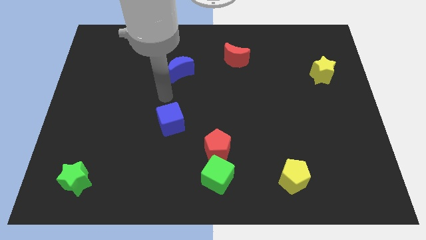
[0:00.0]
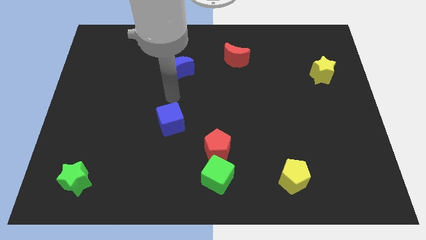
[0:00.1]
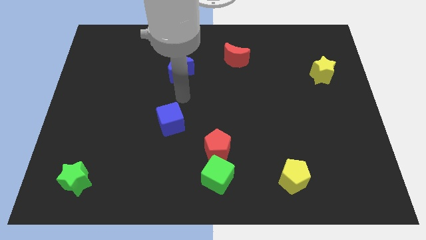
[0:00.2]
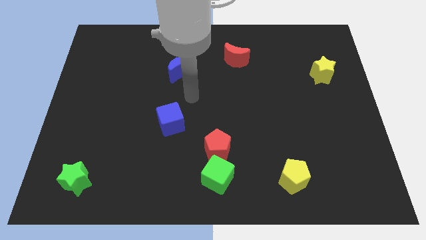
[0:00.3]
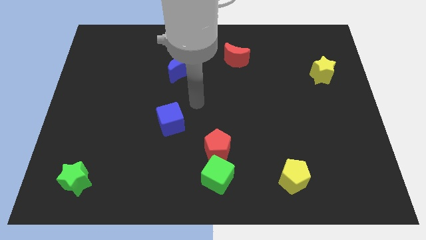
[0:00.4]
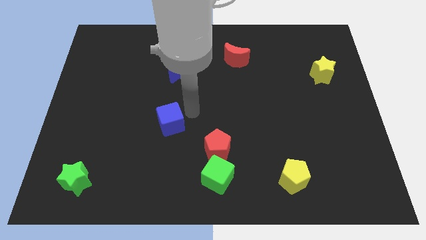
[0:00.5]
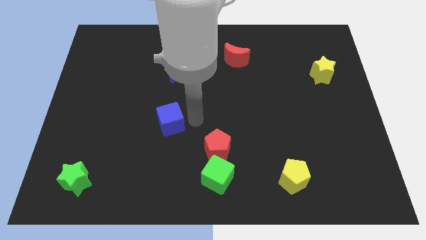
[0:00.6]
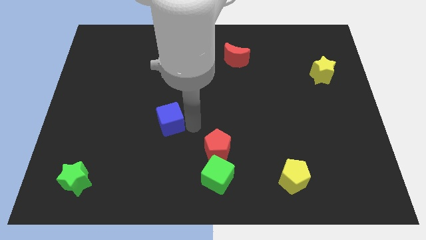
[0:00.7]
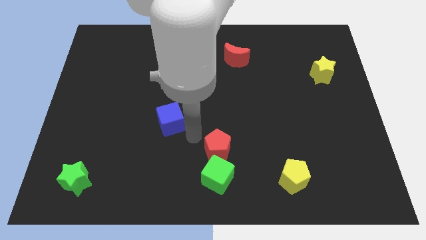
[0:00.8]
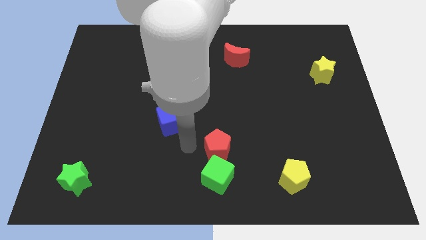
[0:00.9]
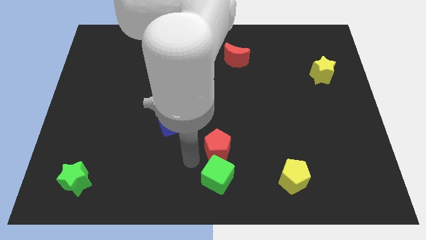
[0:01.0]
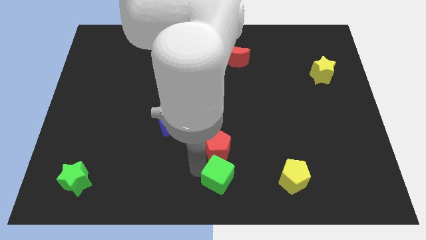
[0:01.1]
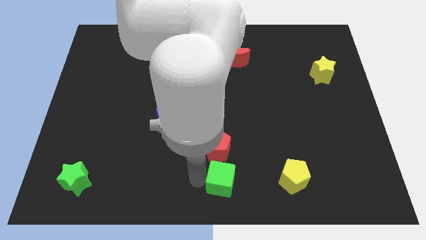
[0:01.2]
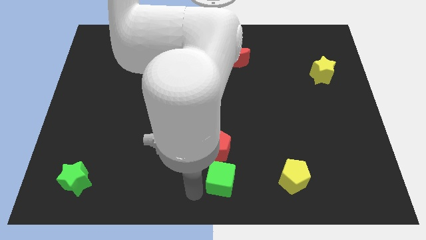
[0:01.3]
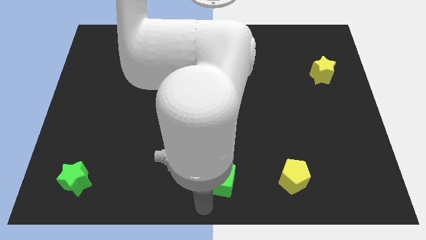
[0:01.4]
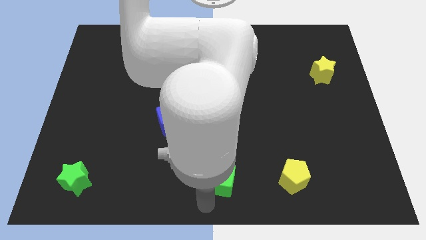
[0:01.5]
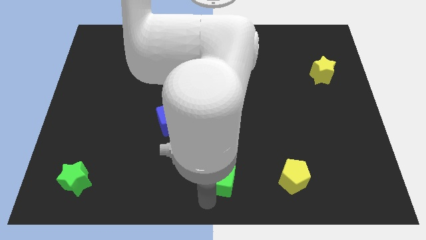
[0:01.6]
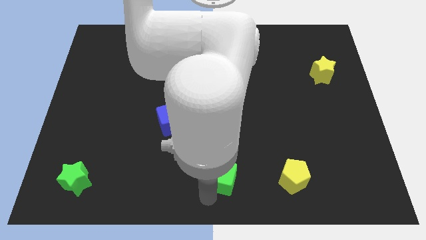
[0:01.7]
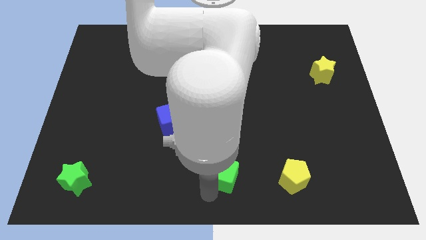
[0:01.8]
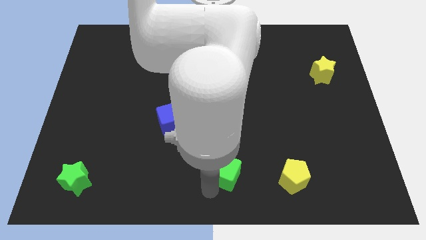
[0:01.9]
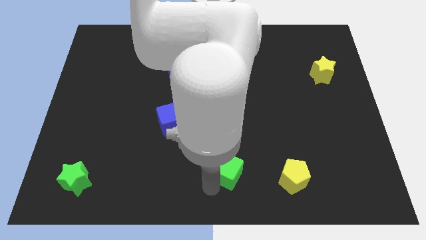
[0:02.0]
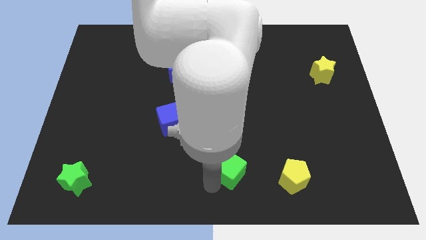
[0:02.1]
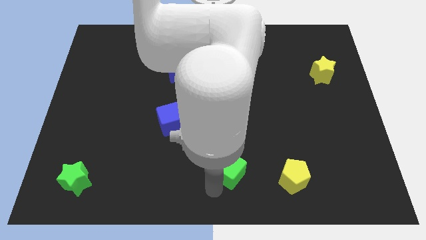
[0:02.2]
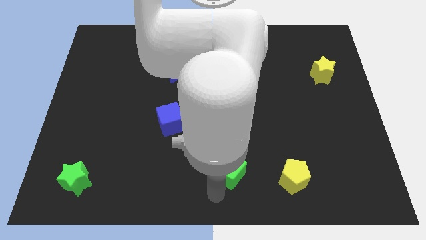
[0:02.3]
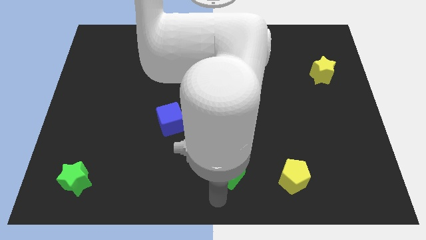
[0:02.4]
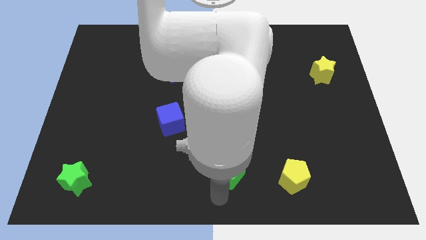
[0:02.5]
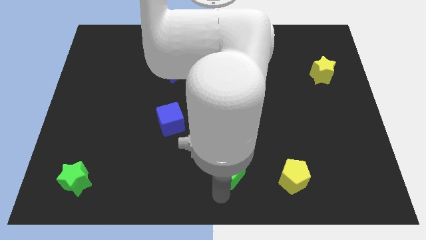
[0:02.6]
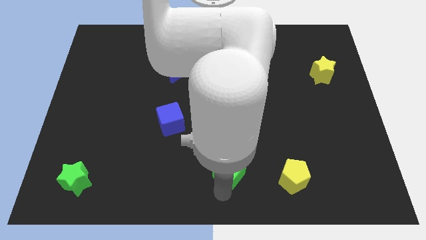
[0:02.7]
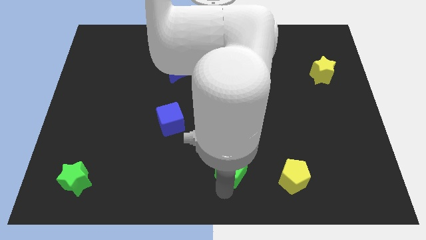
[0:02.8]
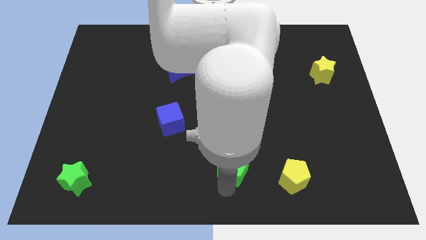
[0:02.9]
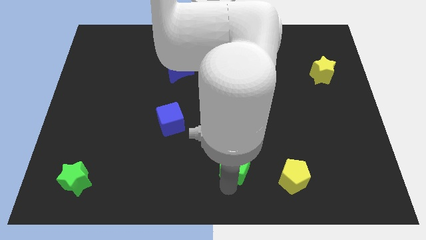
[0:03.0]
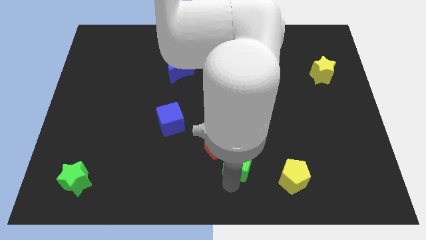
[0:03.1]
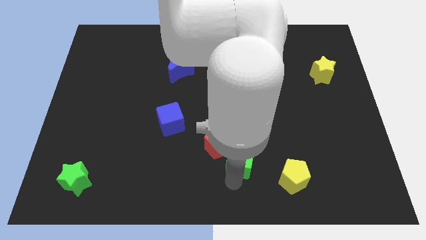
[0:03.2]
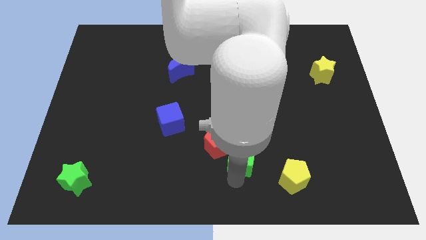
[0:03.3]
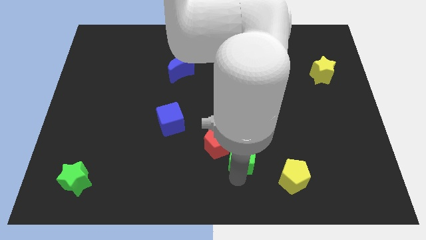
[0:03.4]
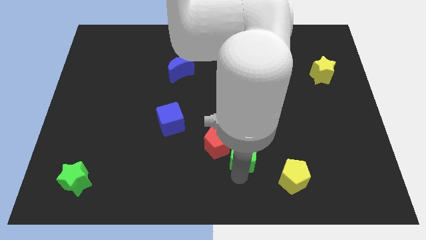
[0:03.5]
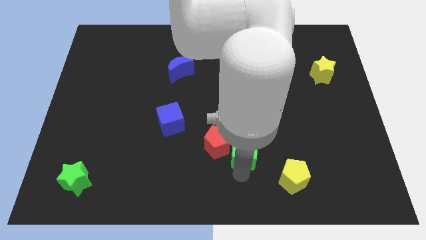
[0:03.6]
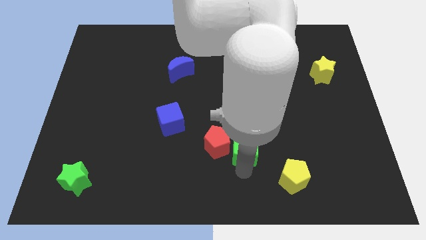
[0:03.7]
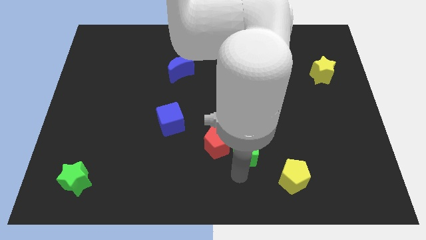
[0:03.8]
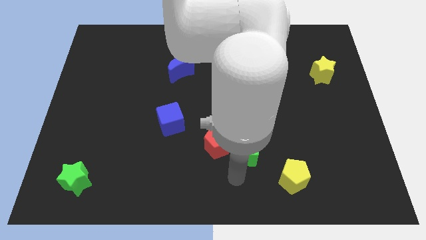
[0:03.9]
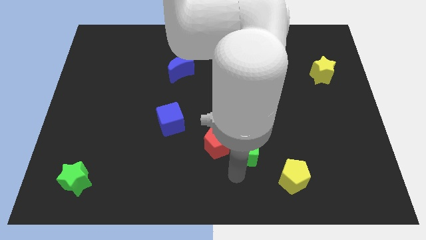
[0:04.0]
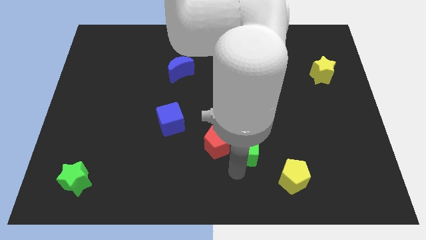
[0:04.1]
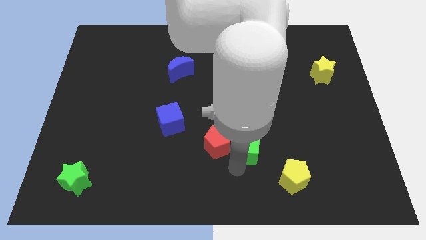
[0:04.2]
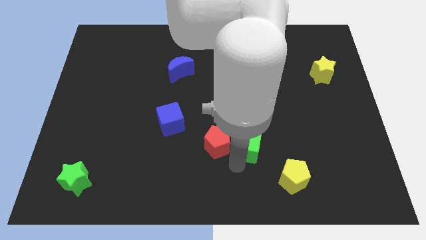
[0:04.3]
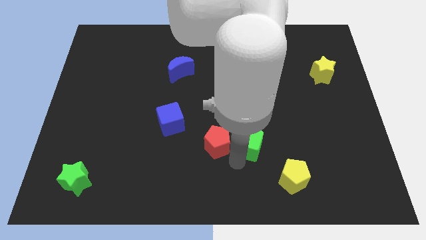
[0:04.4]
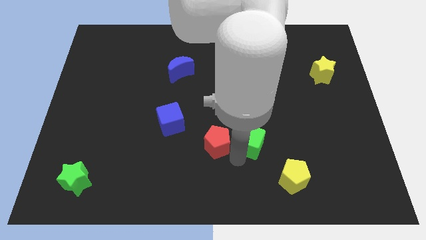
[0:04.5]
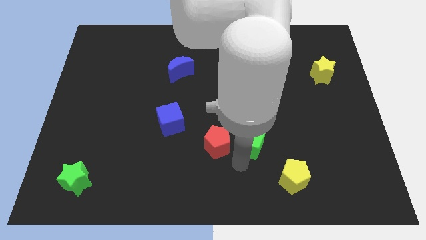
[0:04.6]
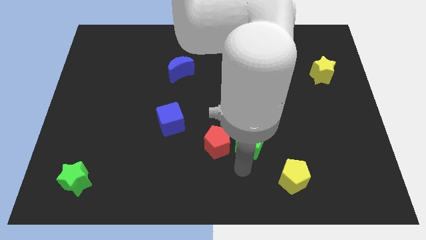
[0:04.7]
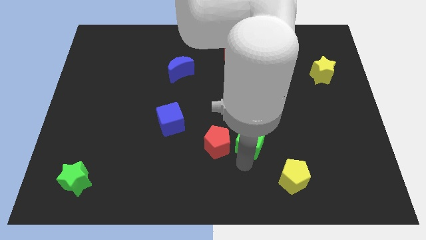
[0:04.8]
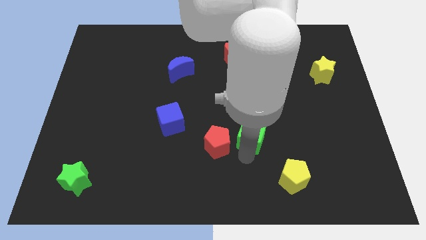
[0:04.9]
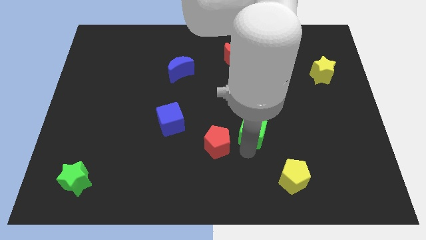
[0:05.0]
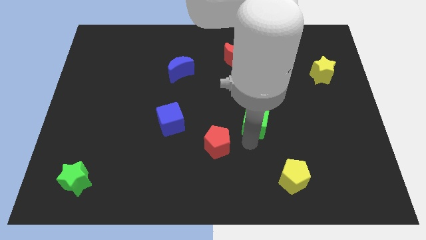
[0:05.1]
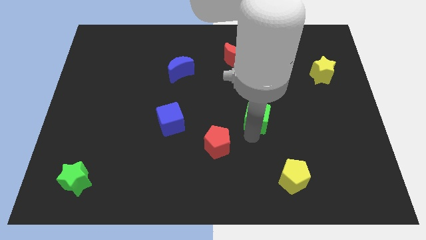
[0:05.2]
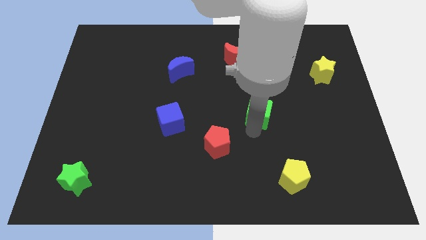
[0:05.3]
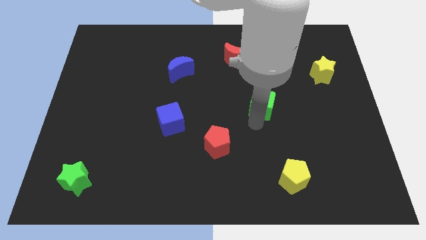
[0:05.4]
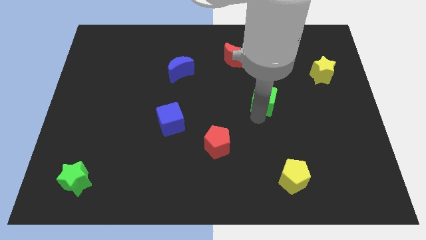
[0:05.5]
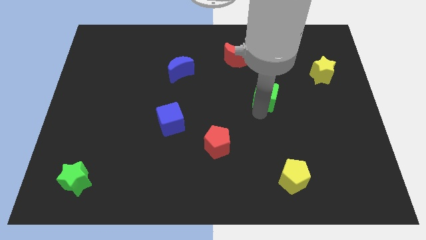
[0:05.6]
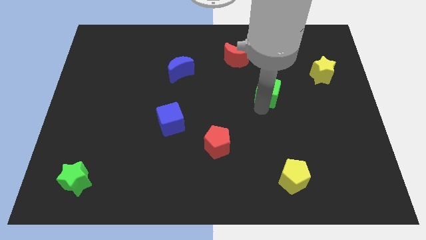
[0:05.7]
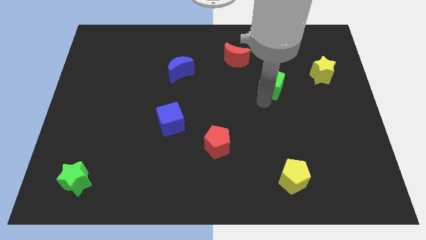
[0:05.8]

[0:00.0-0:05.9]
slide the green cube left of the yellow star

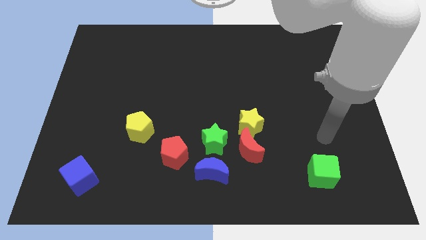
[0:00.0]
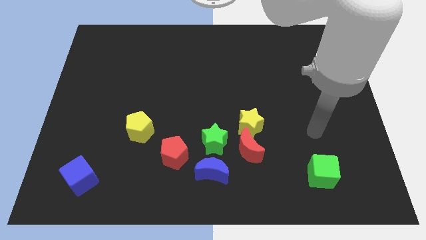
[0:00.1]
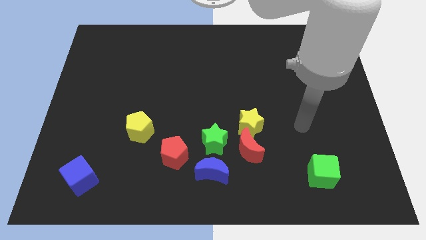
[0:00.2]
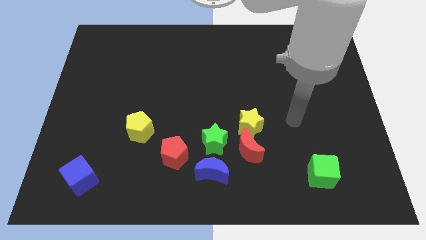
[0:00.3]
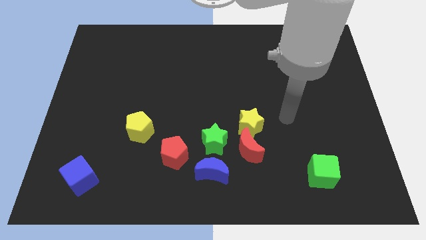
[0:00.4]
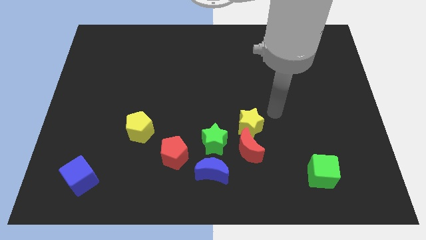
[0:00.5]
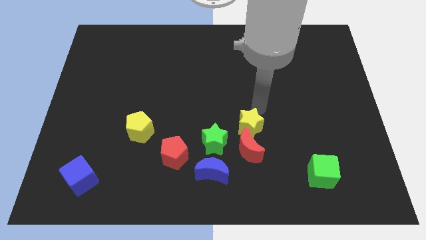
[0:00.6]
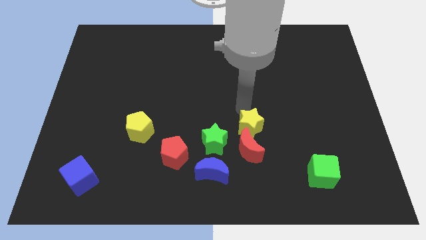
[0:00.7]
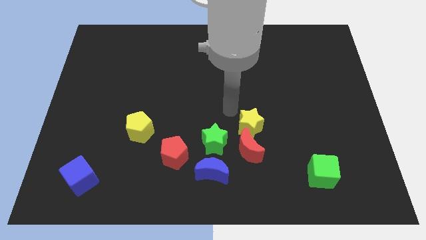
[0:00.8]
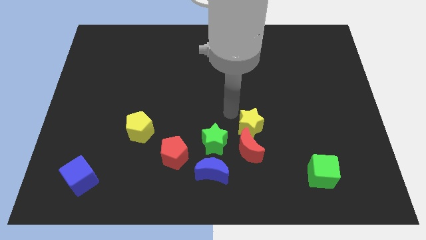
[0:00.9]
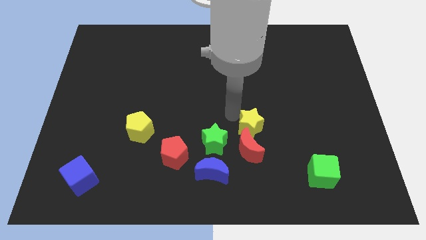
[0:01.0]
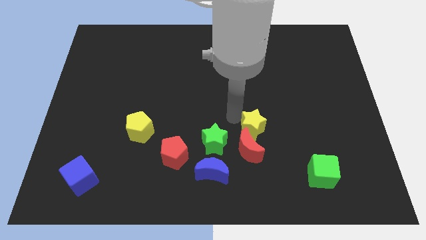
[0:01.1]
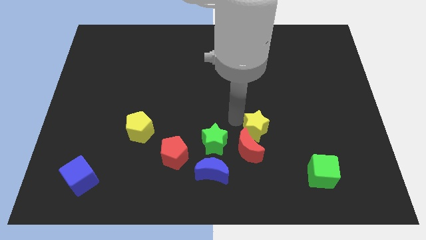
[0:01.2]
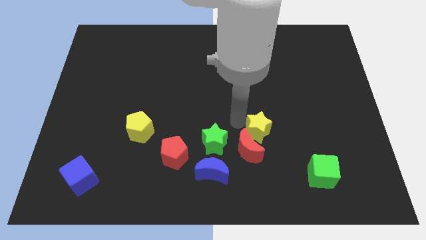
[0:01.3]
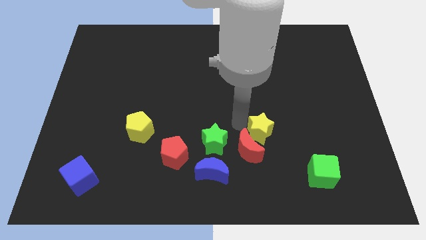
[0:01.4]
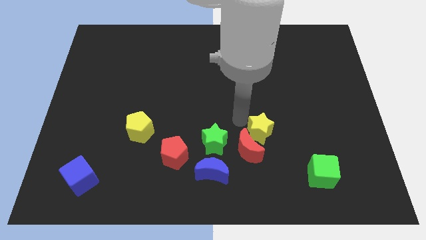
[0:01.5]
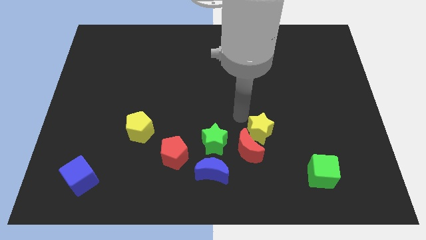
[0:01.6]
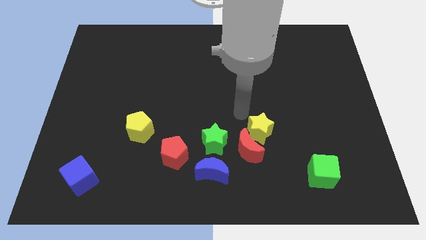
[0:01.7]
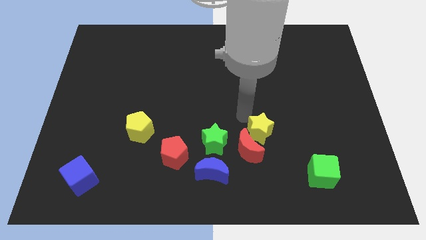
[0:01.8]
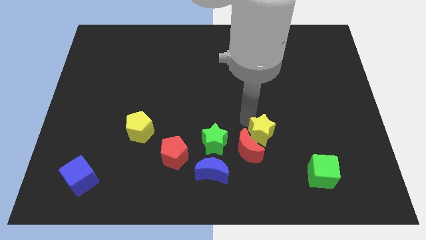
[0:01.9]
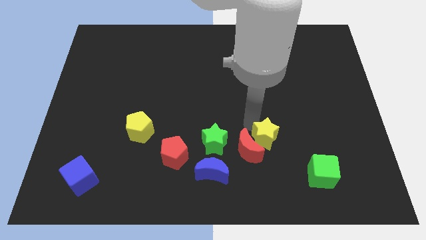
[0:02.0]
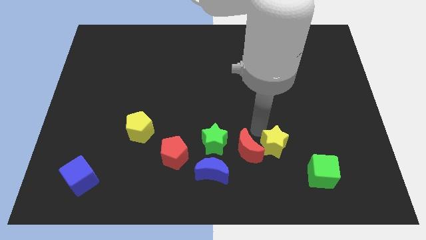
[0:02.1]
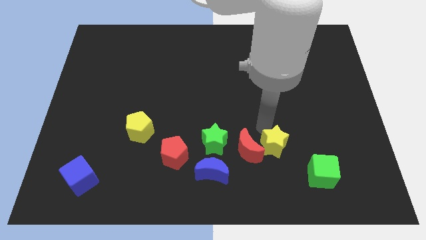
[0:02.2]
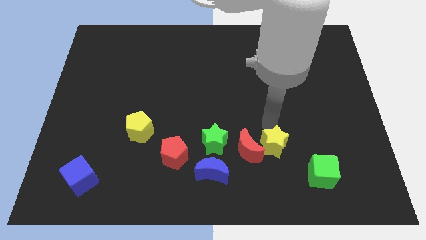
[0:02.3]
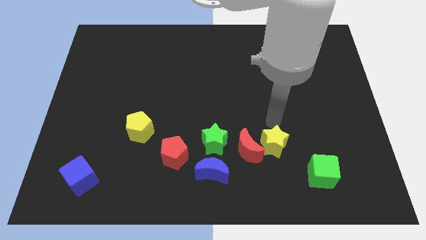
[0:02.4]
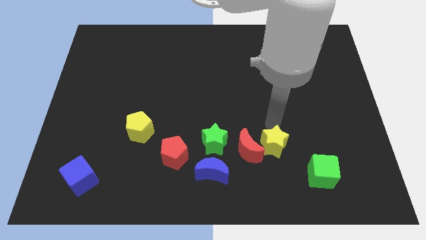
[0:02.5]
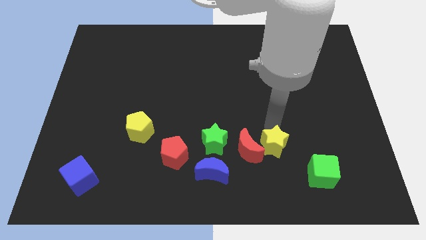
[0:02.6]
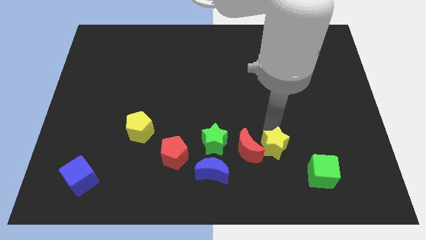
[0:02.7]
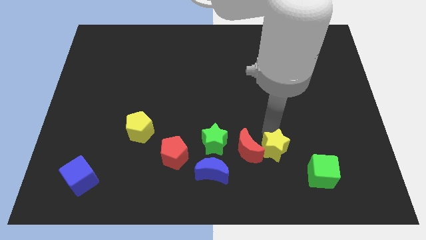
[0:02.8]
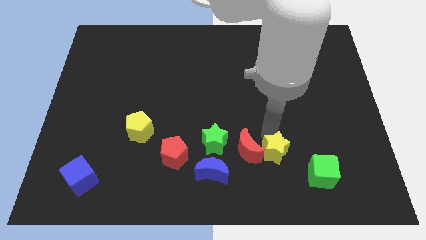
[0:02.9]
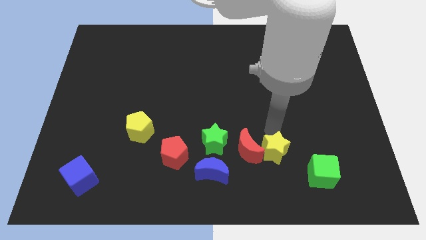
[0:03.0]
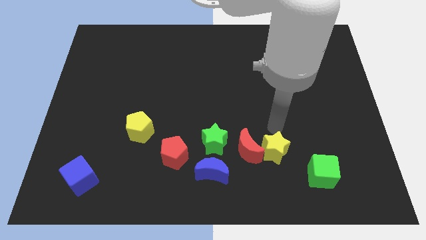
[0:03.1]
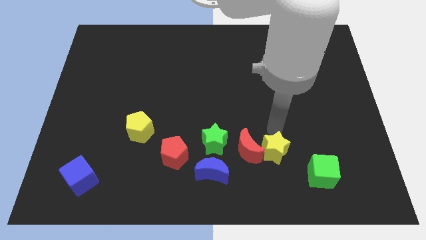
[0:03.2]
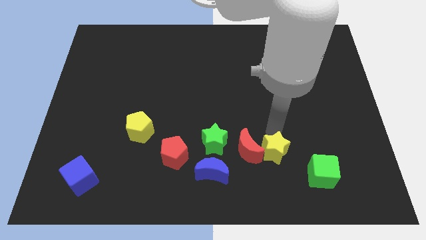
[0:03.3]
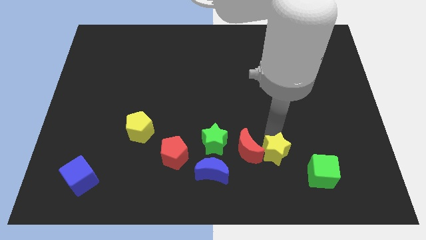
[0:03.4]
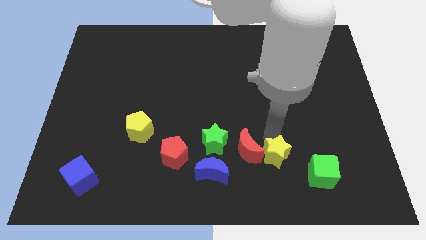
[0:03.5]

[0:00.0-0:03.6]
put the yellow star to the left of the green cube
